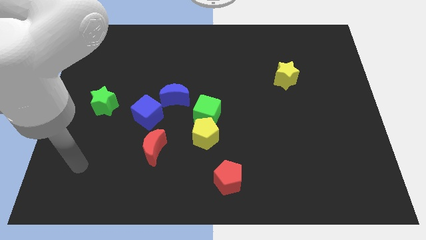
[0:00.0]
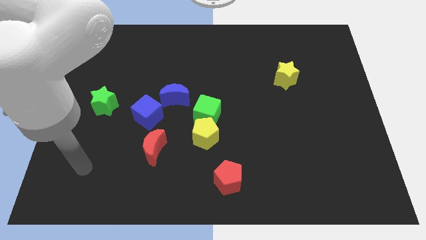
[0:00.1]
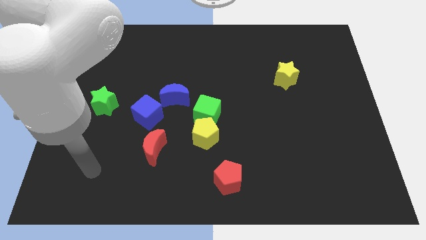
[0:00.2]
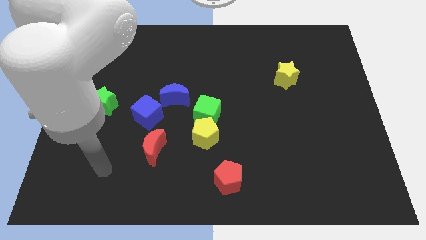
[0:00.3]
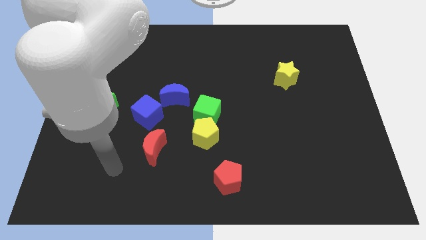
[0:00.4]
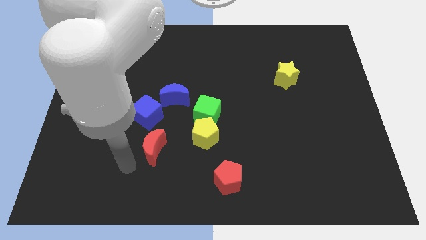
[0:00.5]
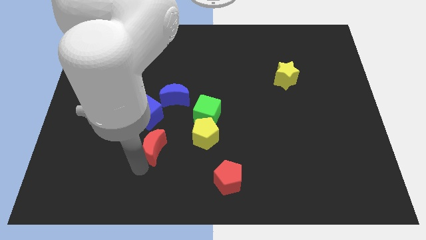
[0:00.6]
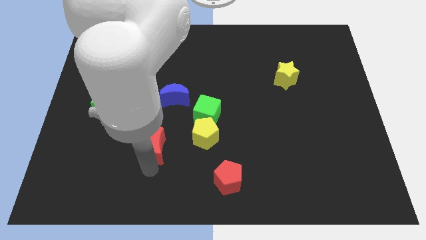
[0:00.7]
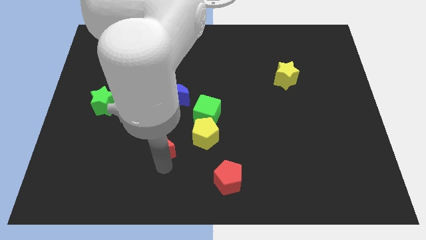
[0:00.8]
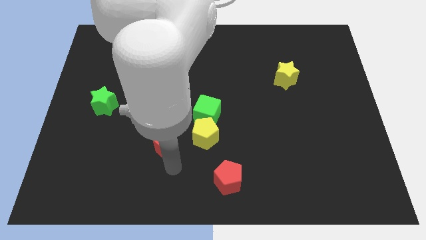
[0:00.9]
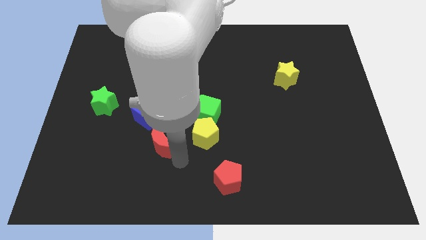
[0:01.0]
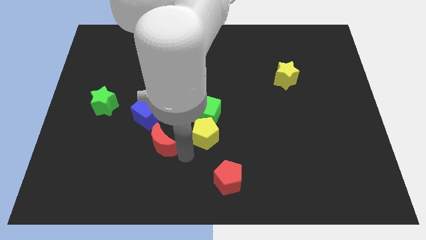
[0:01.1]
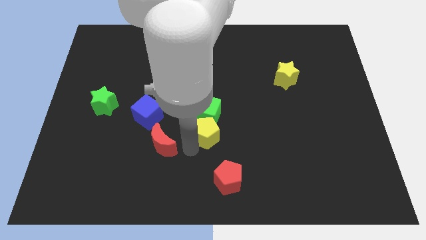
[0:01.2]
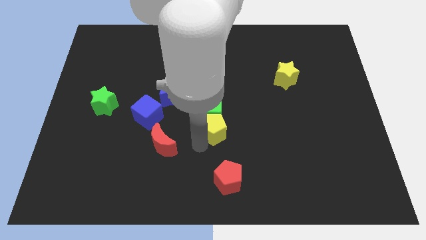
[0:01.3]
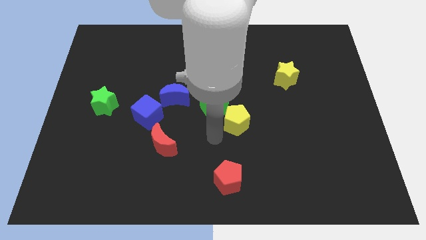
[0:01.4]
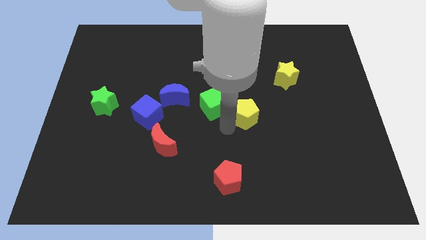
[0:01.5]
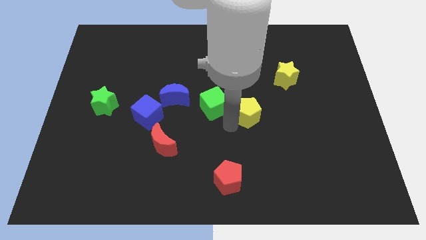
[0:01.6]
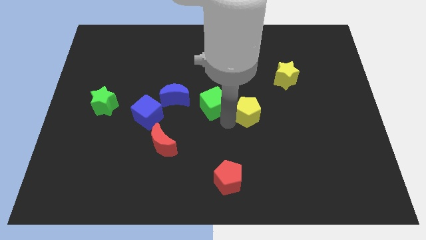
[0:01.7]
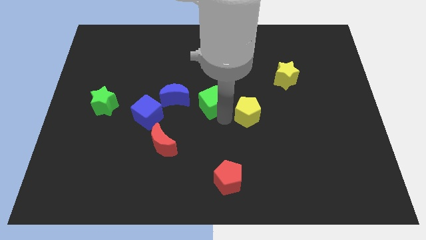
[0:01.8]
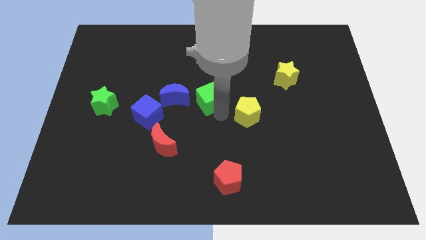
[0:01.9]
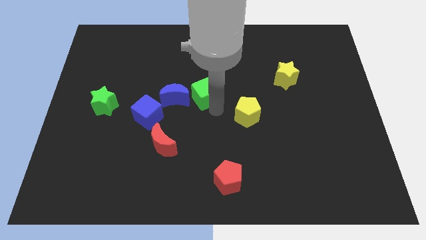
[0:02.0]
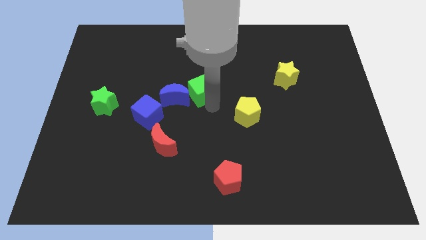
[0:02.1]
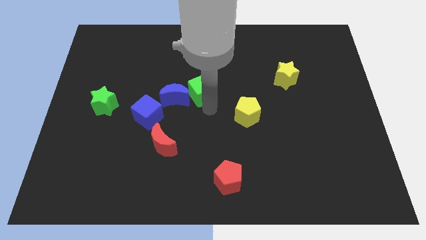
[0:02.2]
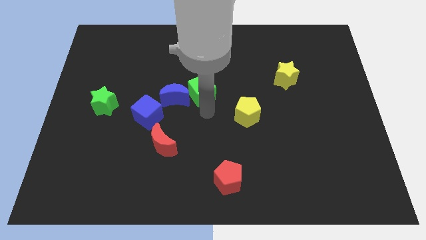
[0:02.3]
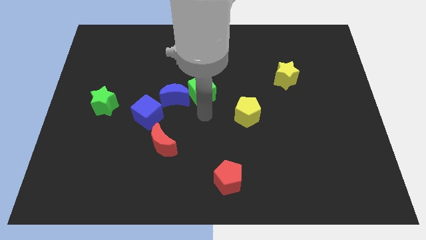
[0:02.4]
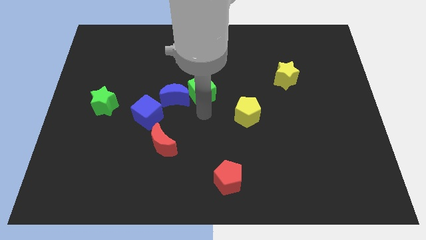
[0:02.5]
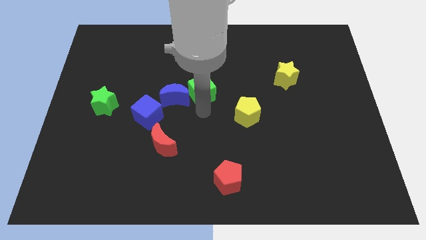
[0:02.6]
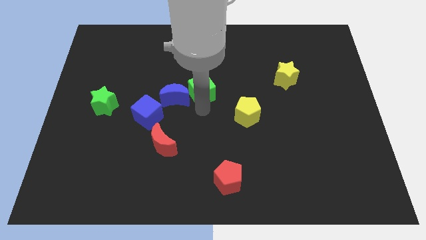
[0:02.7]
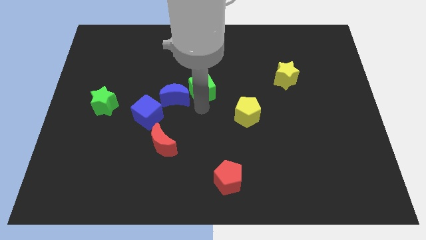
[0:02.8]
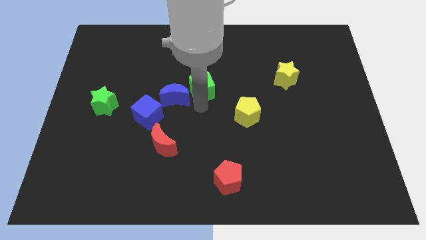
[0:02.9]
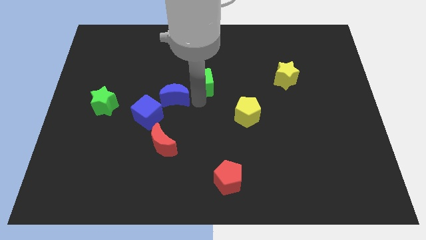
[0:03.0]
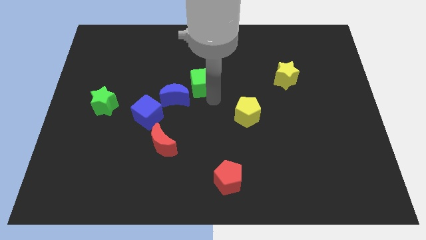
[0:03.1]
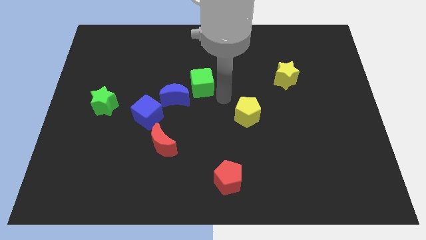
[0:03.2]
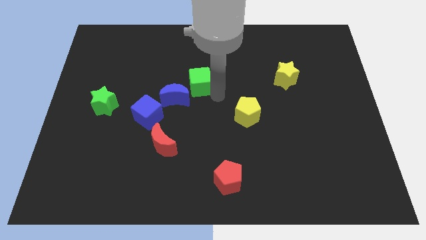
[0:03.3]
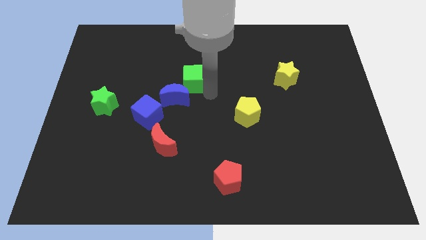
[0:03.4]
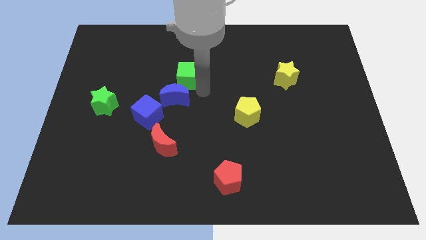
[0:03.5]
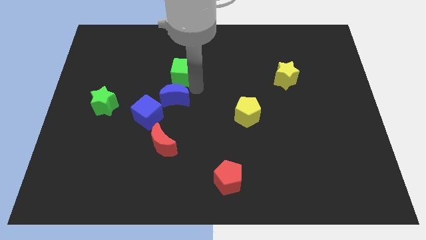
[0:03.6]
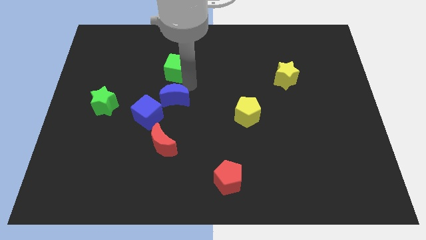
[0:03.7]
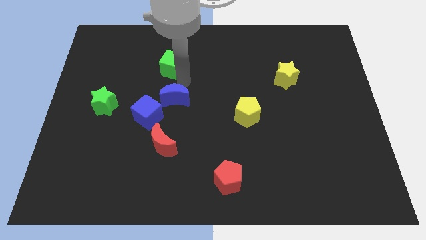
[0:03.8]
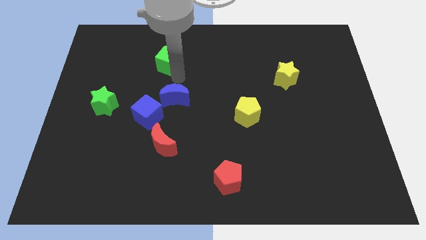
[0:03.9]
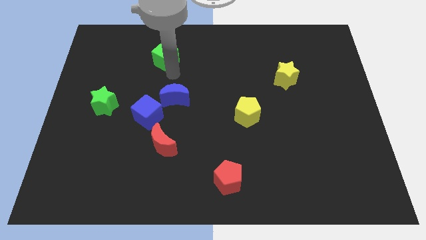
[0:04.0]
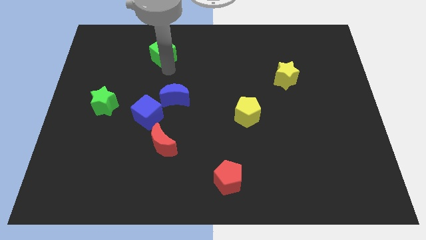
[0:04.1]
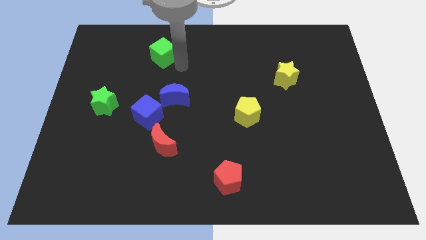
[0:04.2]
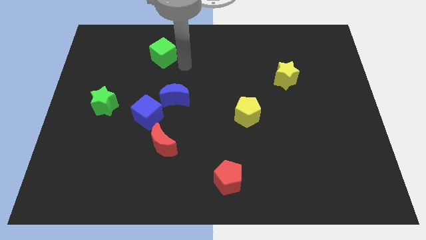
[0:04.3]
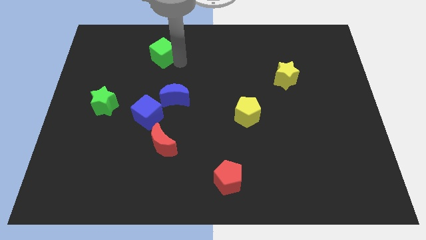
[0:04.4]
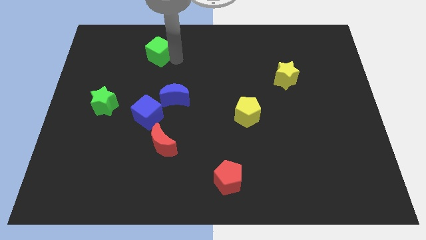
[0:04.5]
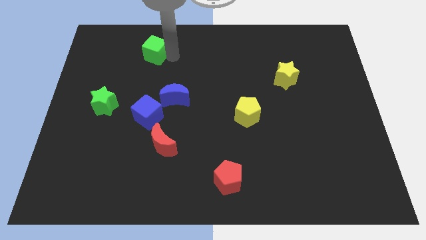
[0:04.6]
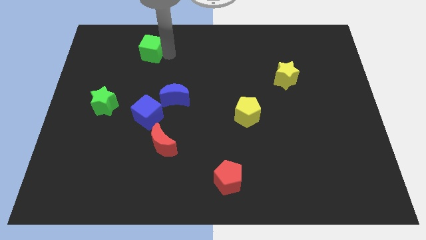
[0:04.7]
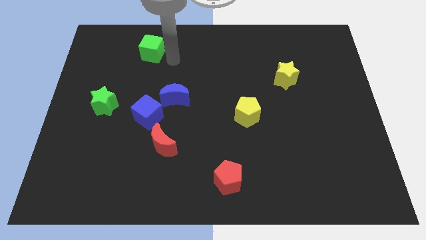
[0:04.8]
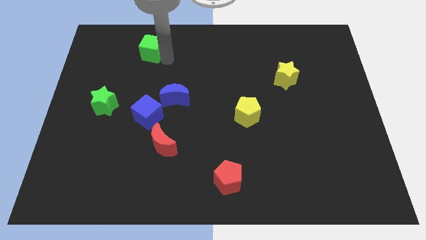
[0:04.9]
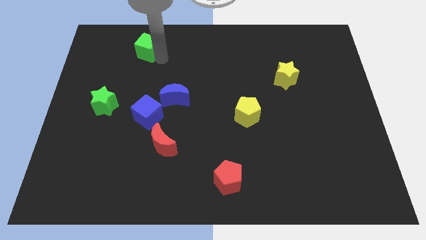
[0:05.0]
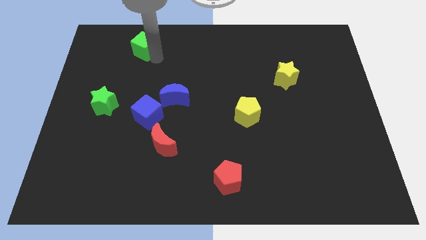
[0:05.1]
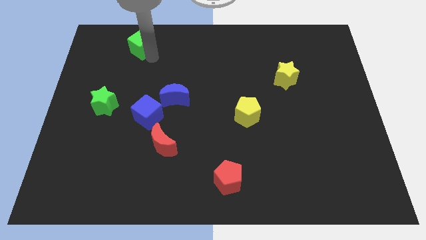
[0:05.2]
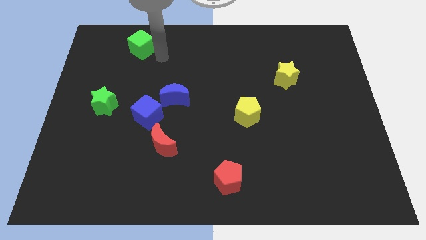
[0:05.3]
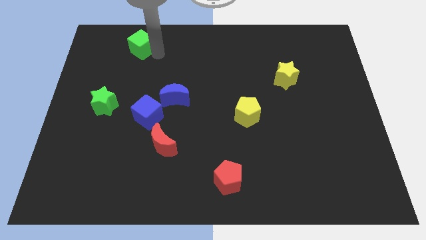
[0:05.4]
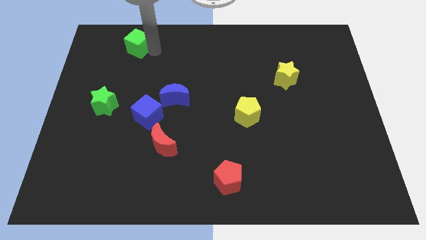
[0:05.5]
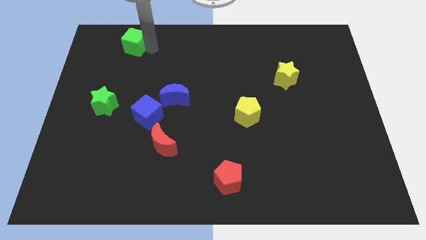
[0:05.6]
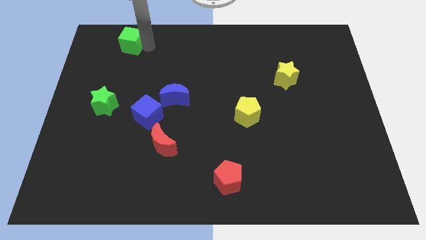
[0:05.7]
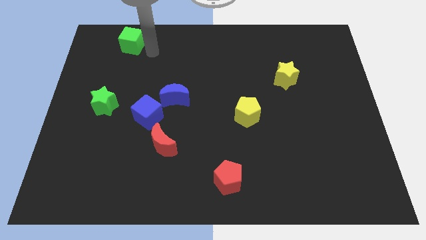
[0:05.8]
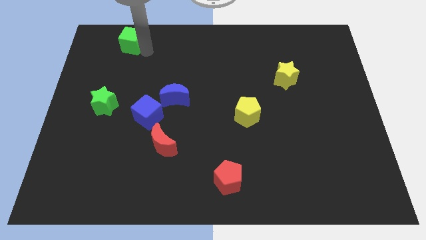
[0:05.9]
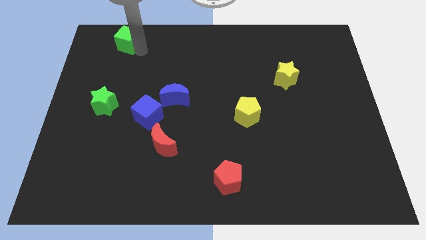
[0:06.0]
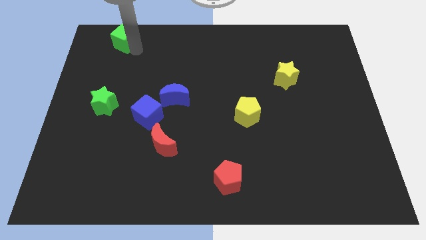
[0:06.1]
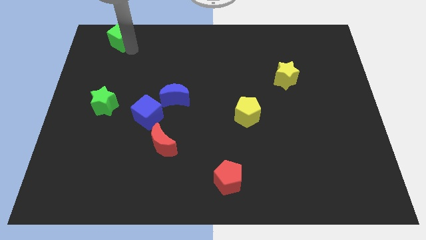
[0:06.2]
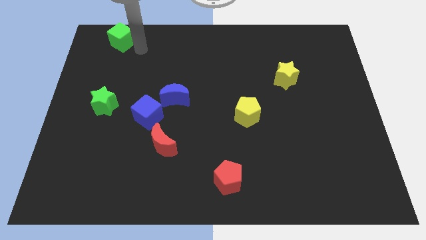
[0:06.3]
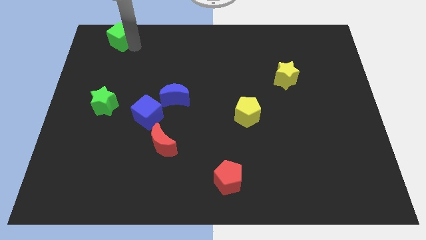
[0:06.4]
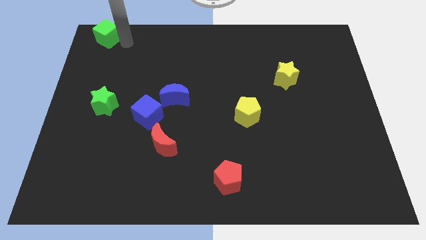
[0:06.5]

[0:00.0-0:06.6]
push the green cube to the upper left corner
